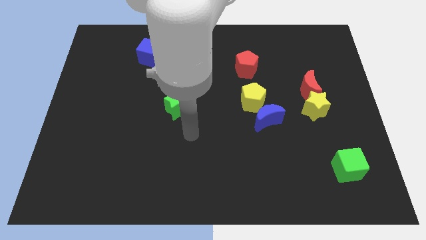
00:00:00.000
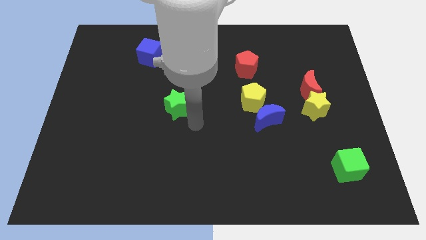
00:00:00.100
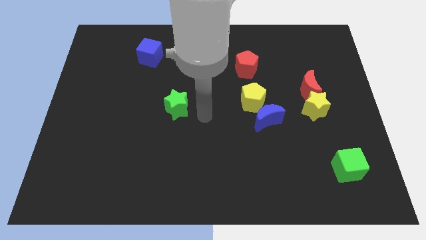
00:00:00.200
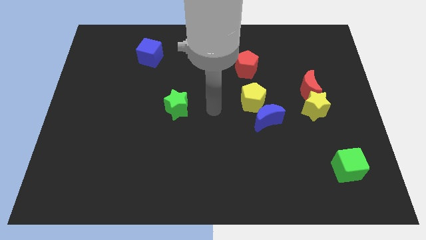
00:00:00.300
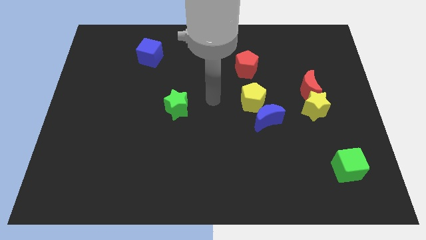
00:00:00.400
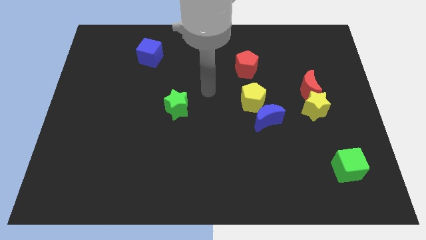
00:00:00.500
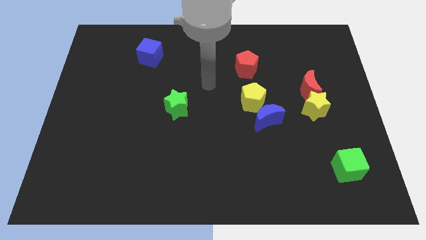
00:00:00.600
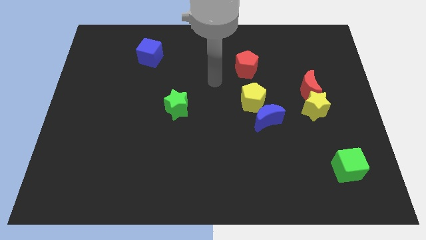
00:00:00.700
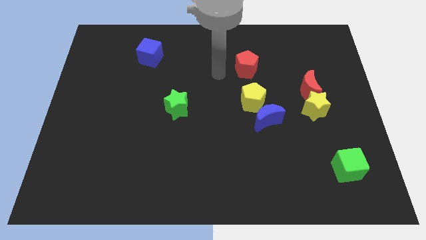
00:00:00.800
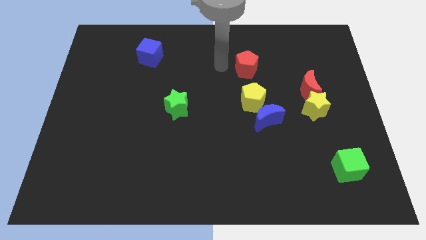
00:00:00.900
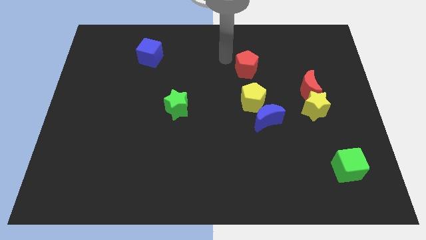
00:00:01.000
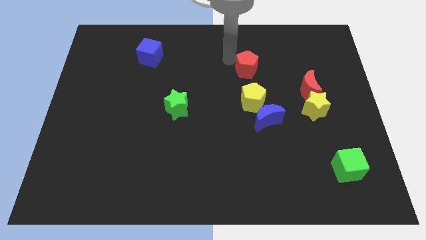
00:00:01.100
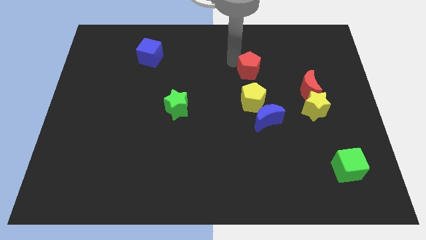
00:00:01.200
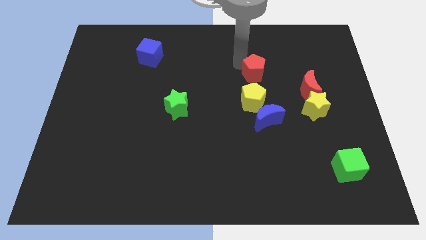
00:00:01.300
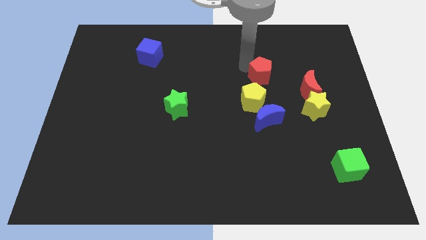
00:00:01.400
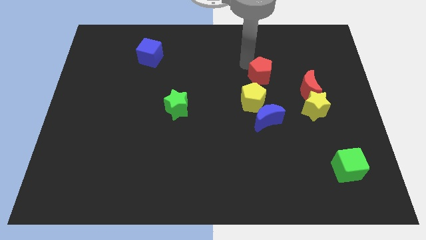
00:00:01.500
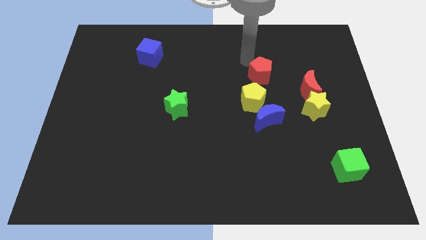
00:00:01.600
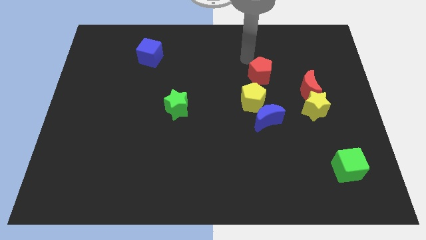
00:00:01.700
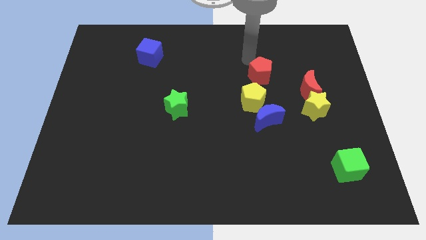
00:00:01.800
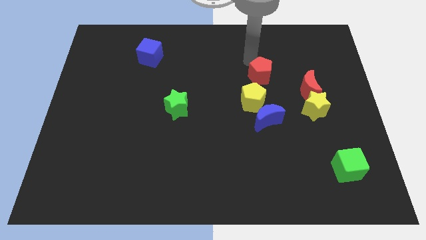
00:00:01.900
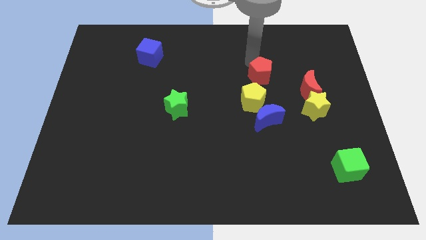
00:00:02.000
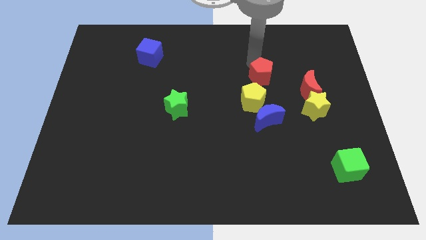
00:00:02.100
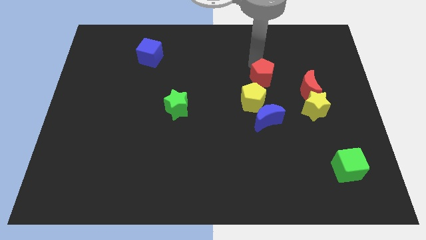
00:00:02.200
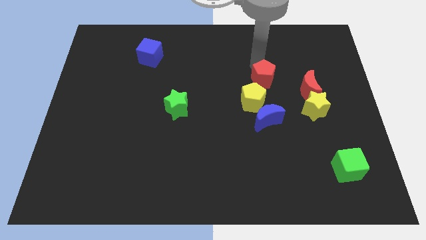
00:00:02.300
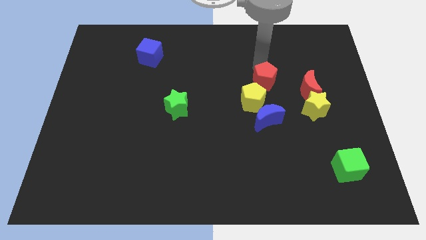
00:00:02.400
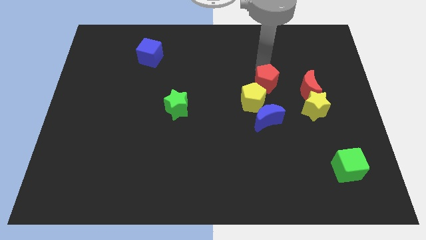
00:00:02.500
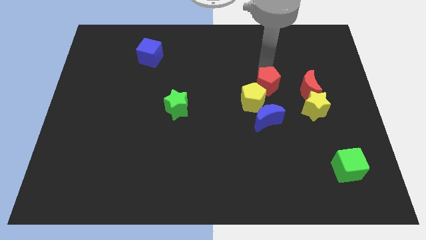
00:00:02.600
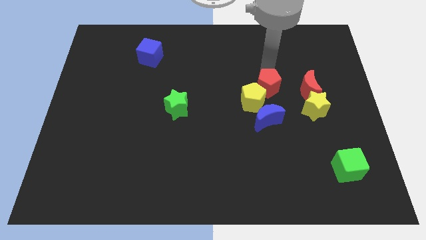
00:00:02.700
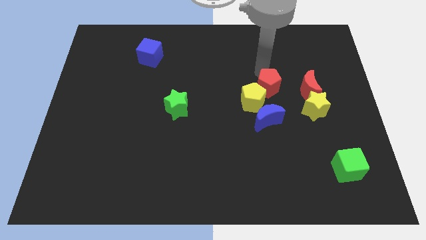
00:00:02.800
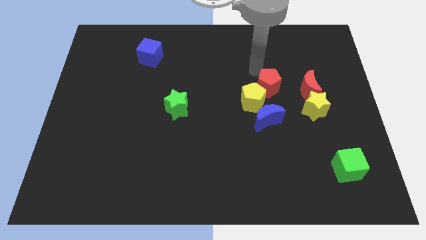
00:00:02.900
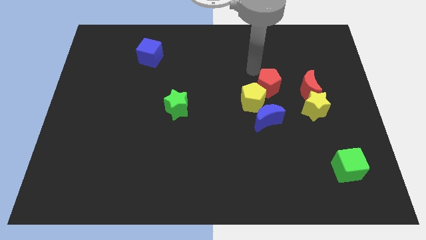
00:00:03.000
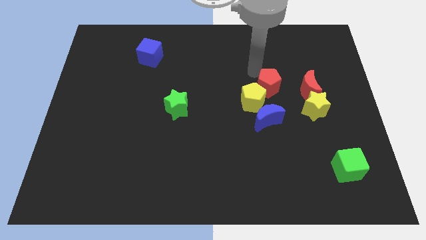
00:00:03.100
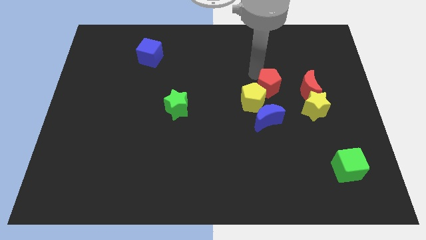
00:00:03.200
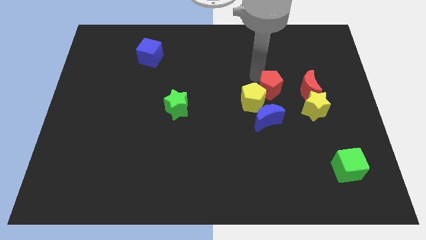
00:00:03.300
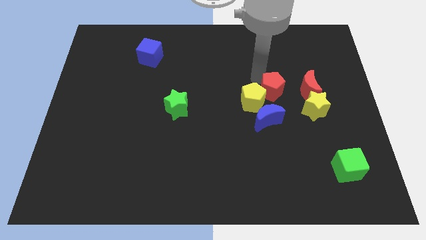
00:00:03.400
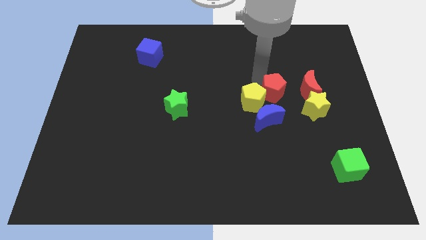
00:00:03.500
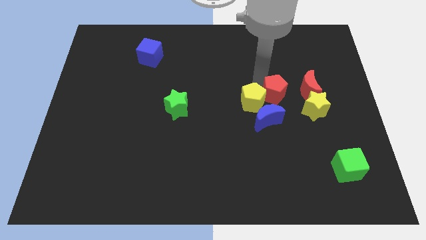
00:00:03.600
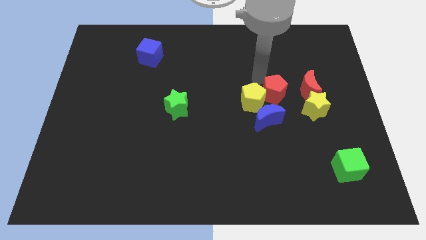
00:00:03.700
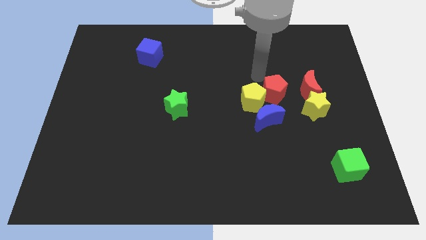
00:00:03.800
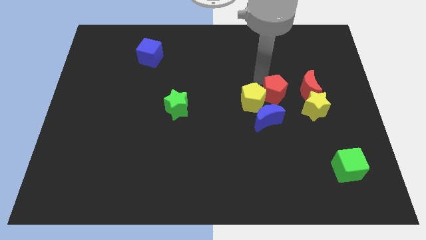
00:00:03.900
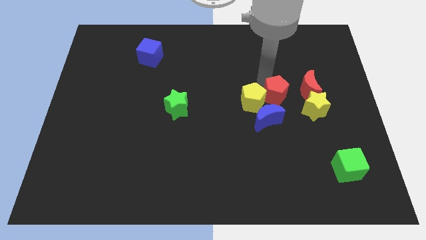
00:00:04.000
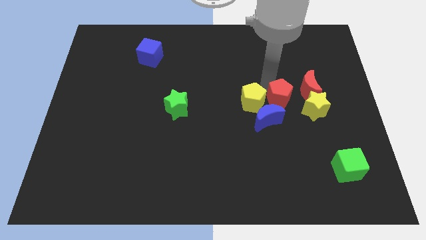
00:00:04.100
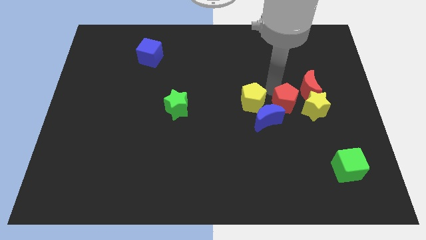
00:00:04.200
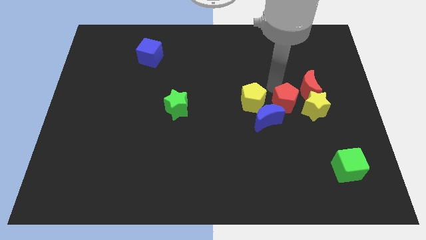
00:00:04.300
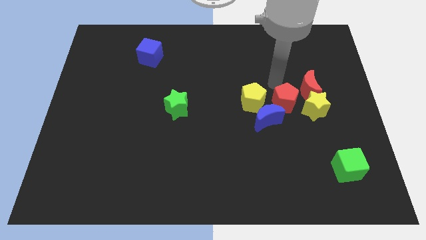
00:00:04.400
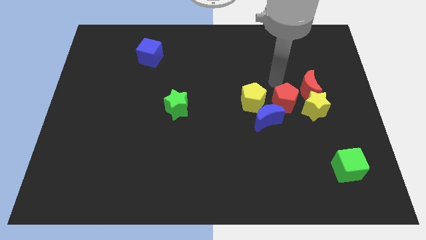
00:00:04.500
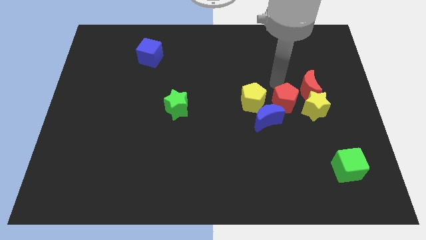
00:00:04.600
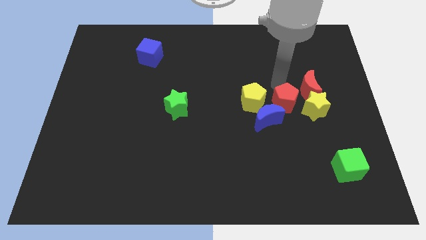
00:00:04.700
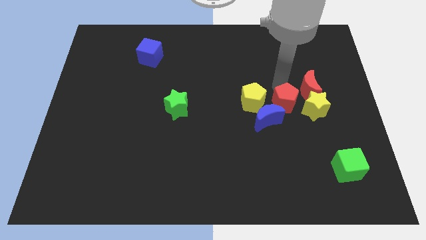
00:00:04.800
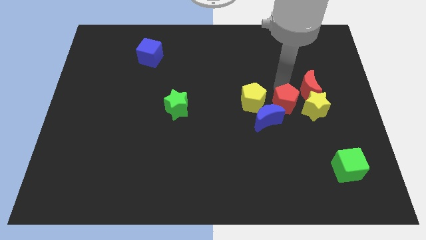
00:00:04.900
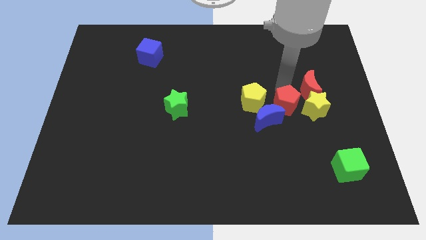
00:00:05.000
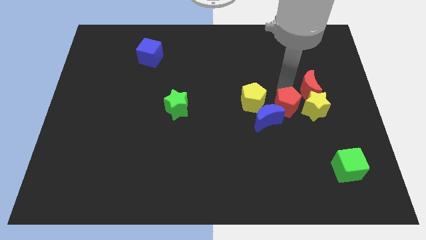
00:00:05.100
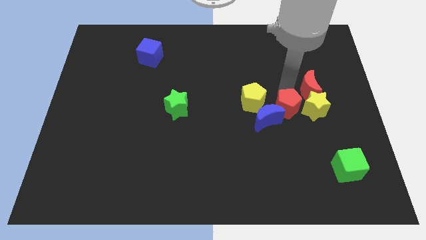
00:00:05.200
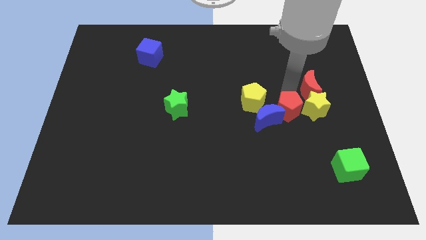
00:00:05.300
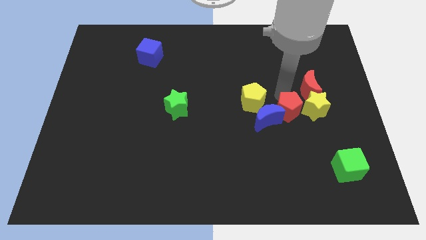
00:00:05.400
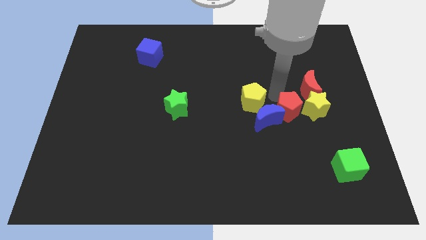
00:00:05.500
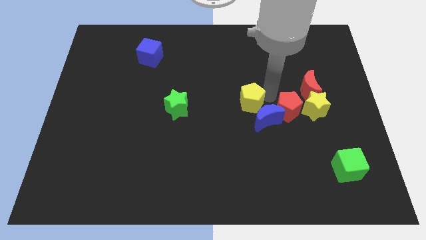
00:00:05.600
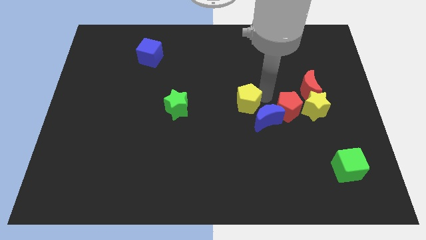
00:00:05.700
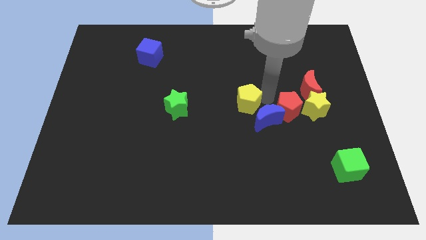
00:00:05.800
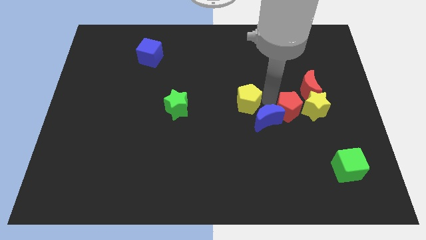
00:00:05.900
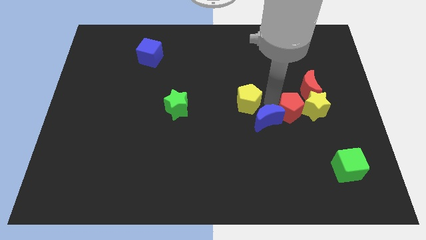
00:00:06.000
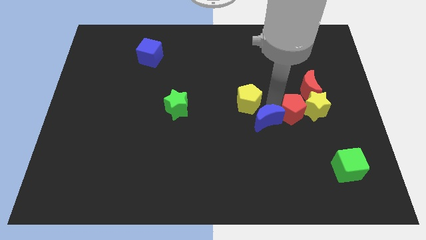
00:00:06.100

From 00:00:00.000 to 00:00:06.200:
move the red pentagon to the bottom of the red moon
